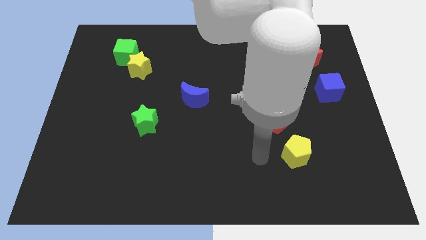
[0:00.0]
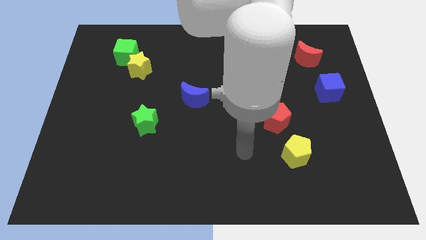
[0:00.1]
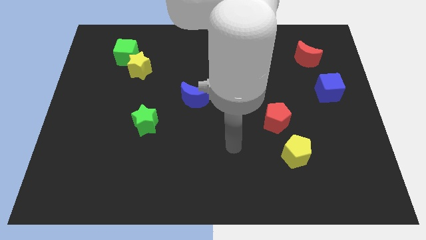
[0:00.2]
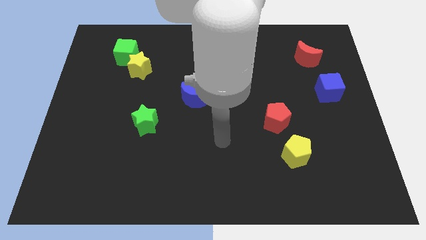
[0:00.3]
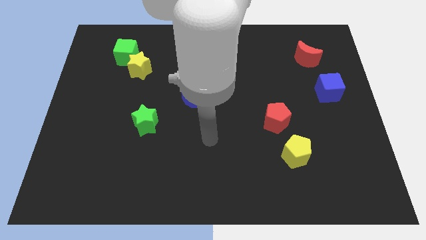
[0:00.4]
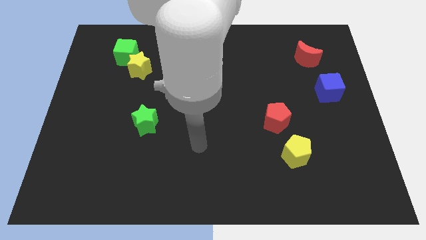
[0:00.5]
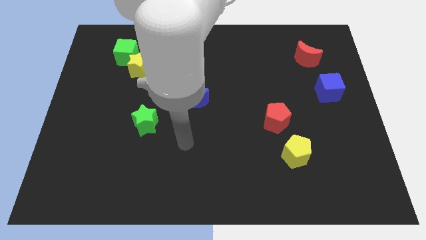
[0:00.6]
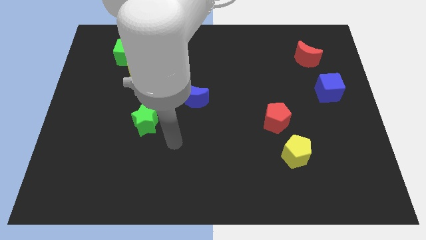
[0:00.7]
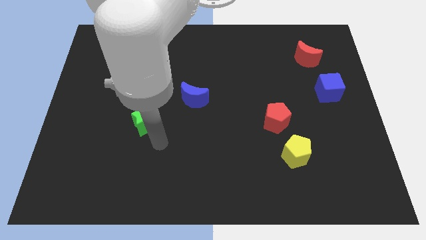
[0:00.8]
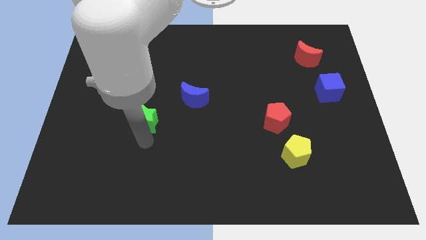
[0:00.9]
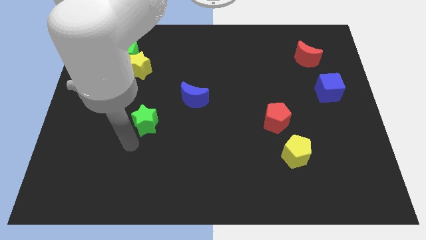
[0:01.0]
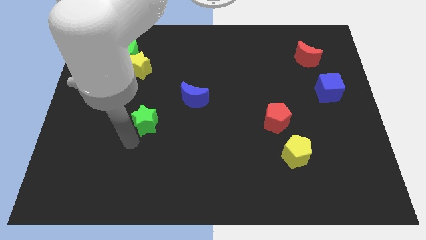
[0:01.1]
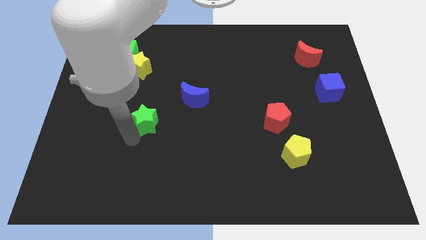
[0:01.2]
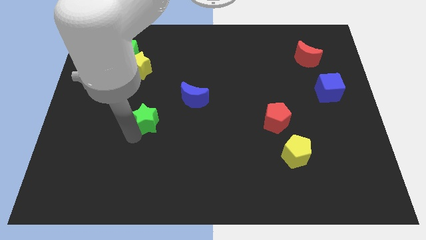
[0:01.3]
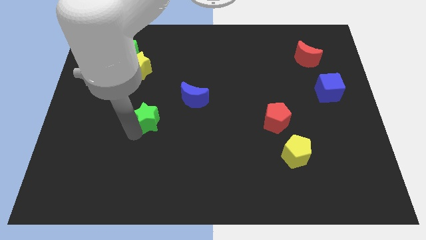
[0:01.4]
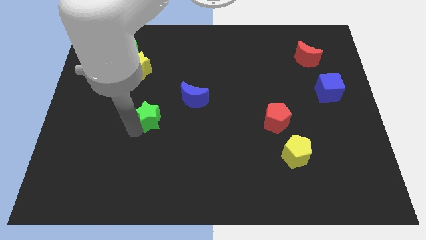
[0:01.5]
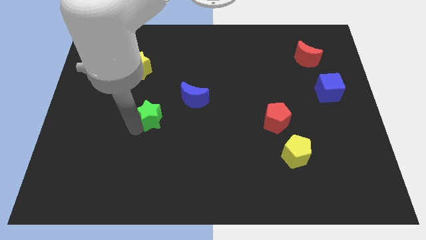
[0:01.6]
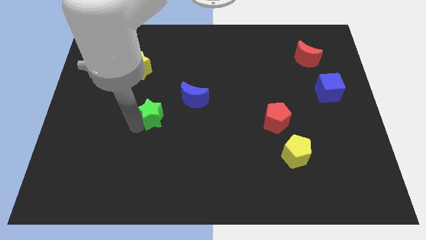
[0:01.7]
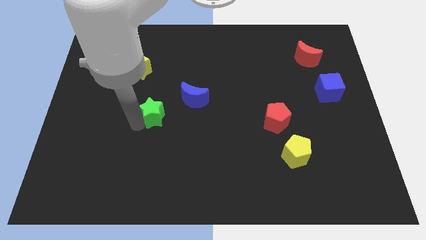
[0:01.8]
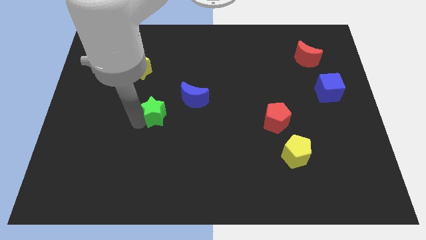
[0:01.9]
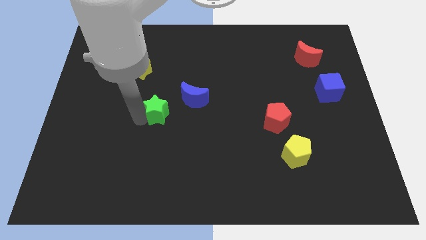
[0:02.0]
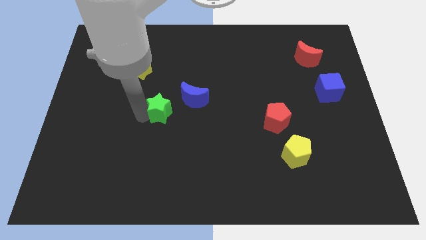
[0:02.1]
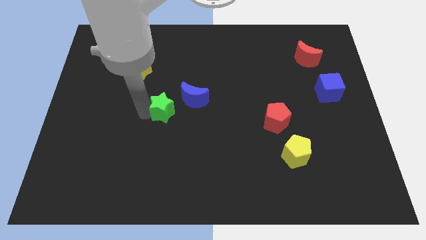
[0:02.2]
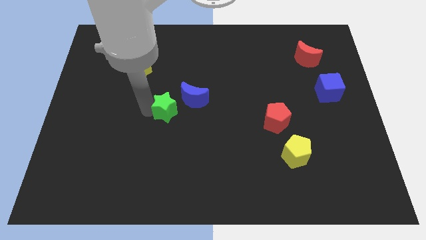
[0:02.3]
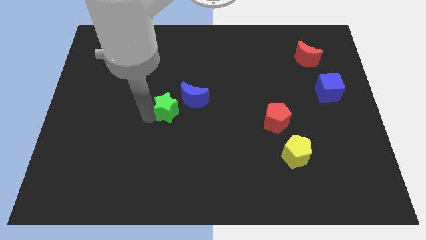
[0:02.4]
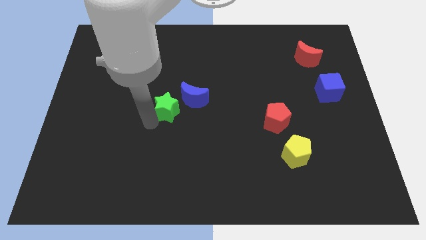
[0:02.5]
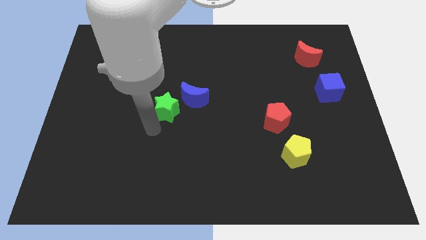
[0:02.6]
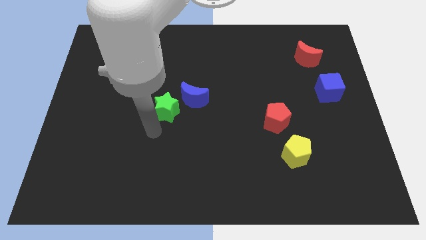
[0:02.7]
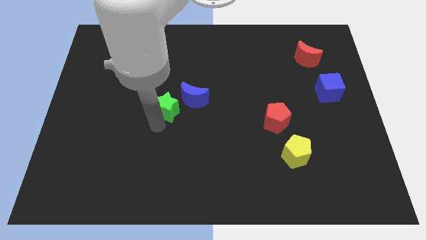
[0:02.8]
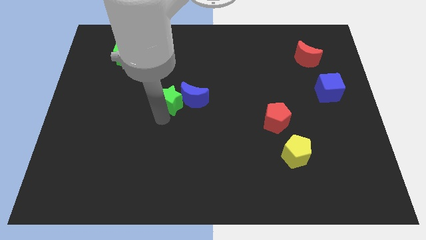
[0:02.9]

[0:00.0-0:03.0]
slightly slide the green star up and right

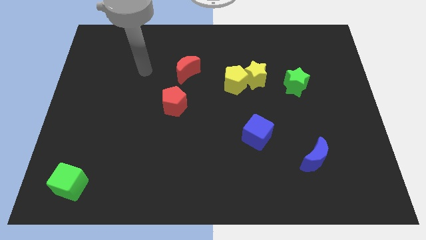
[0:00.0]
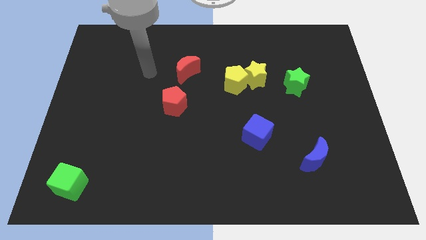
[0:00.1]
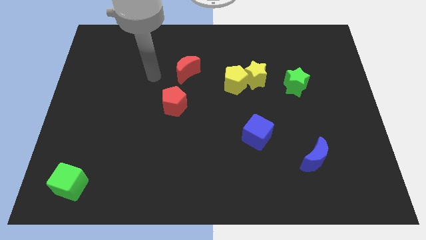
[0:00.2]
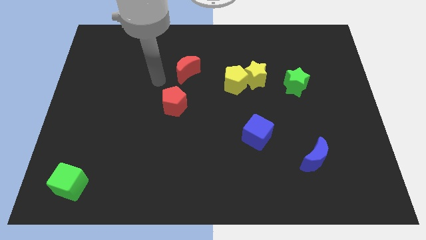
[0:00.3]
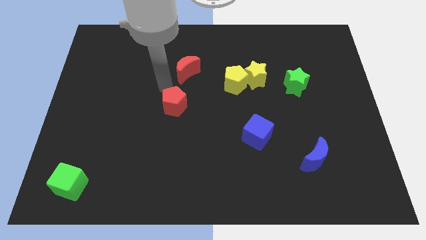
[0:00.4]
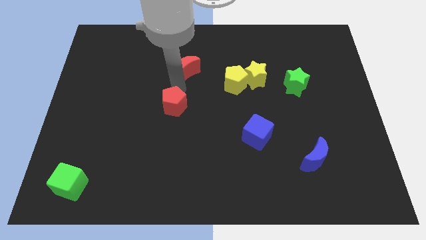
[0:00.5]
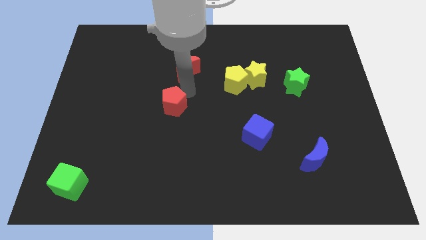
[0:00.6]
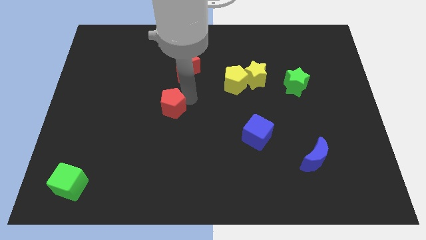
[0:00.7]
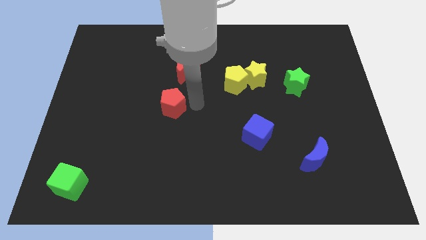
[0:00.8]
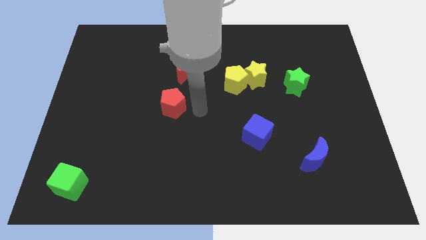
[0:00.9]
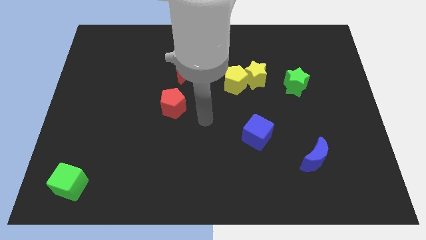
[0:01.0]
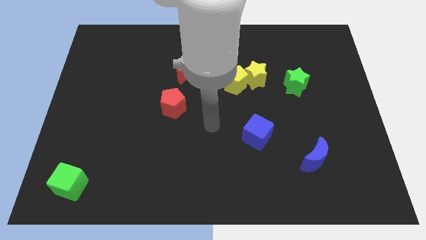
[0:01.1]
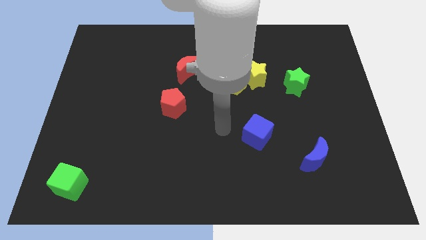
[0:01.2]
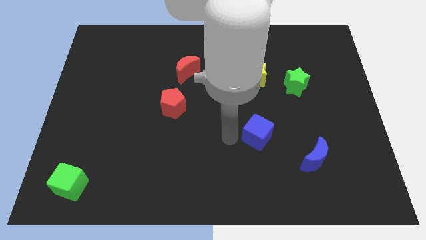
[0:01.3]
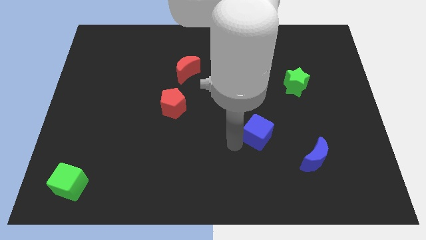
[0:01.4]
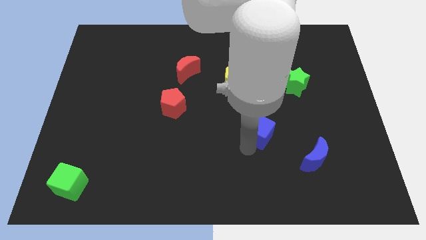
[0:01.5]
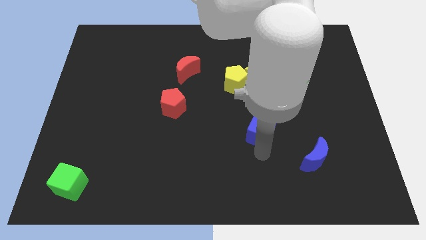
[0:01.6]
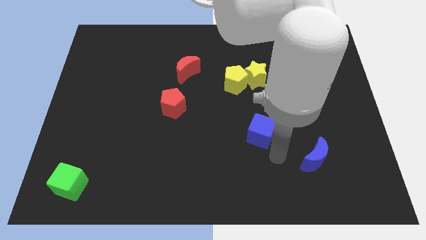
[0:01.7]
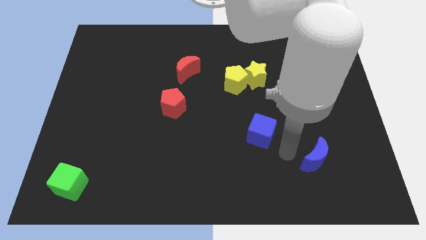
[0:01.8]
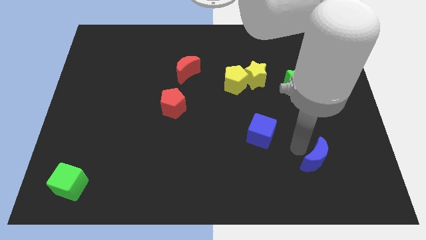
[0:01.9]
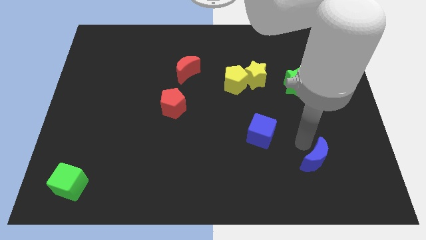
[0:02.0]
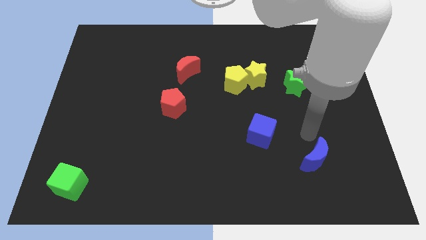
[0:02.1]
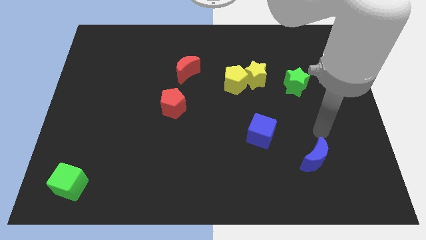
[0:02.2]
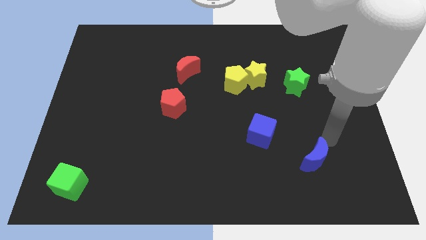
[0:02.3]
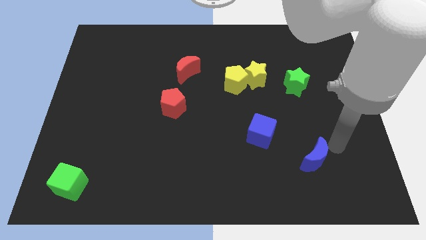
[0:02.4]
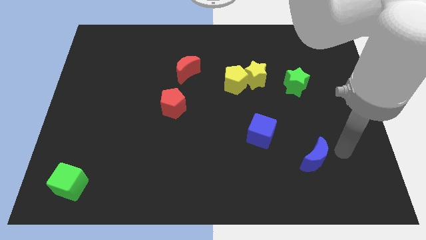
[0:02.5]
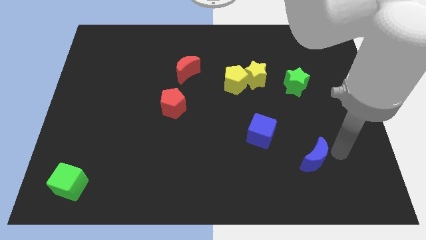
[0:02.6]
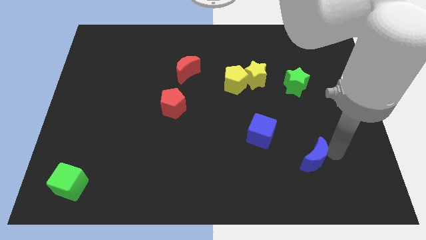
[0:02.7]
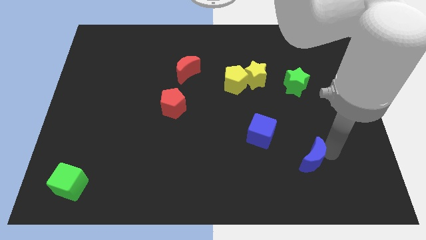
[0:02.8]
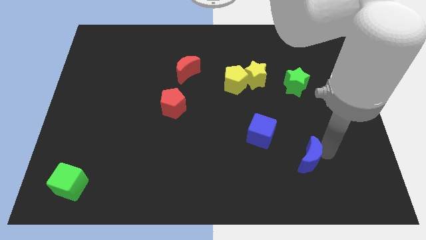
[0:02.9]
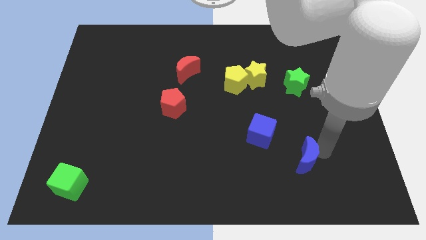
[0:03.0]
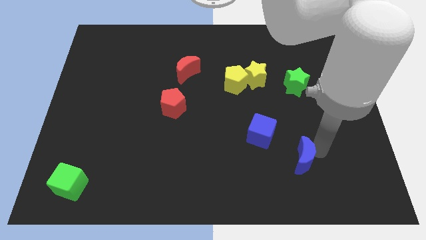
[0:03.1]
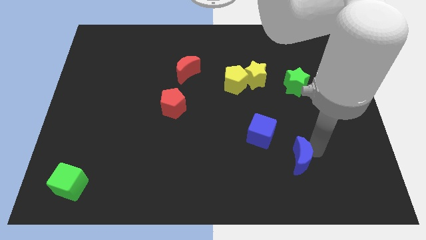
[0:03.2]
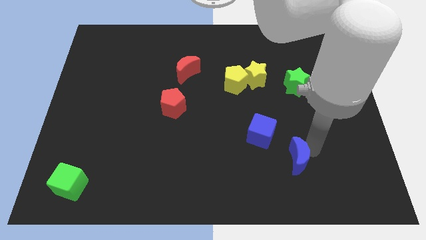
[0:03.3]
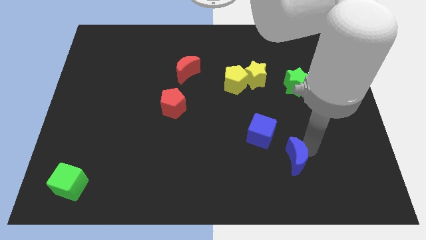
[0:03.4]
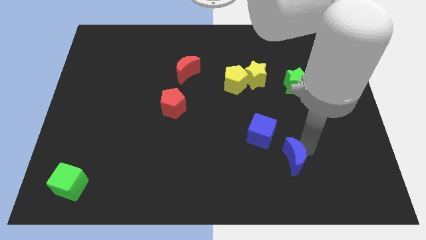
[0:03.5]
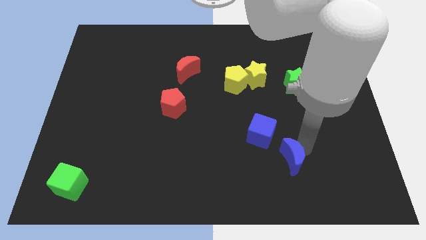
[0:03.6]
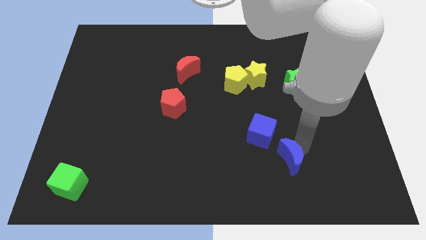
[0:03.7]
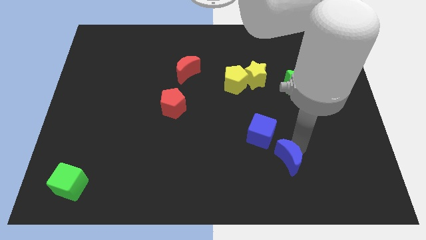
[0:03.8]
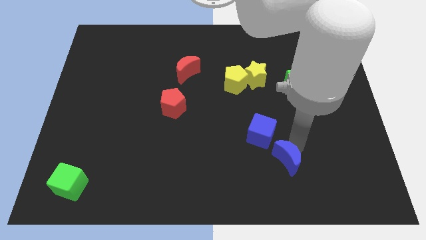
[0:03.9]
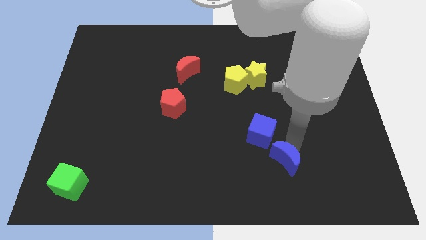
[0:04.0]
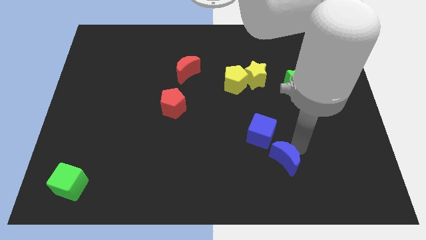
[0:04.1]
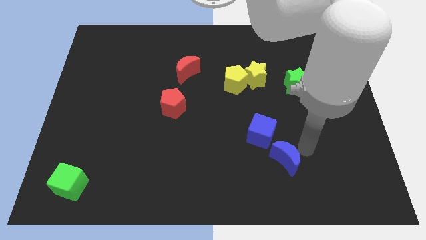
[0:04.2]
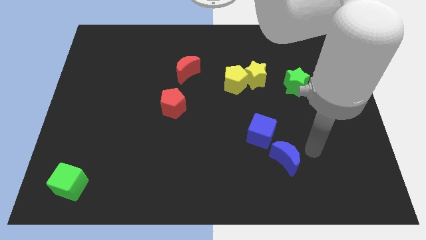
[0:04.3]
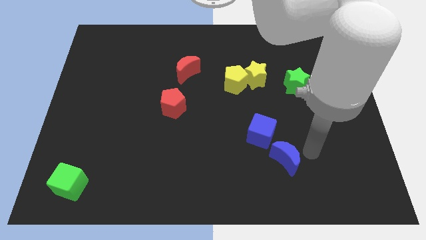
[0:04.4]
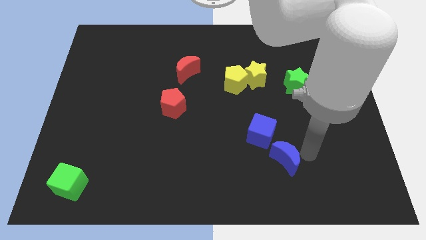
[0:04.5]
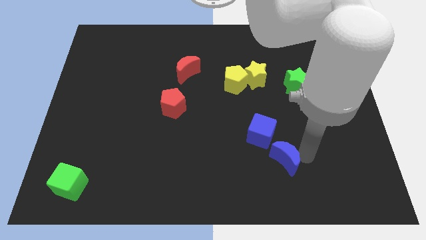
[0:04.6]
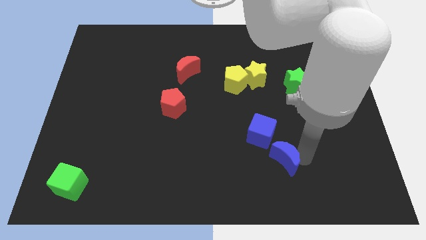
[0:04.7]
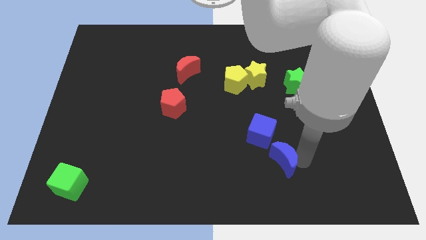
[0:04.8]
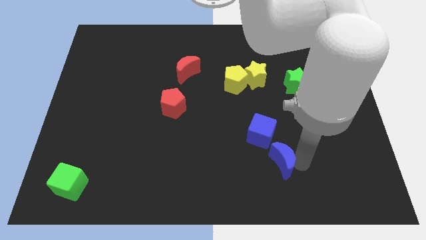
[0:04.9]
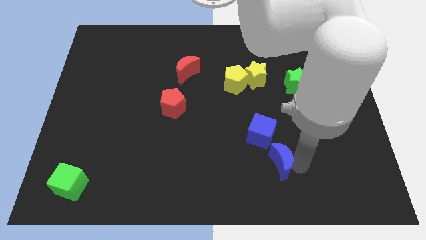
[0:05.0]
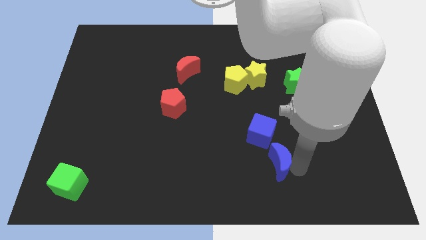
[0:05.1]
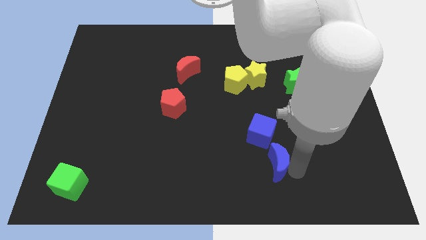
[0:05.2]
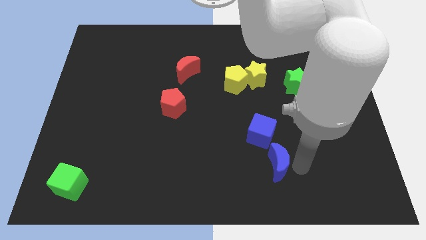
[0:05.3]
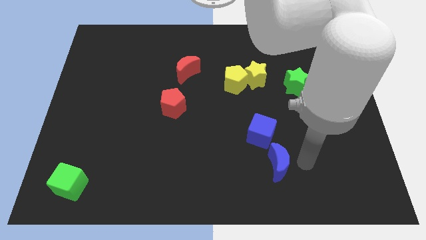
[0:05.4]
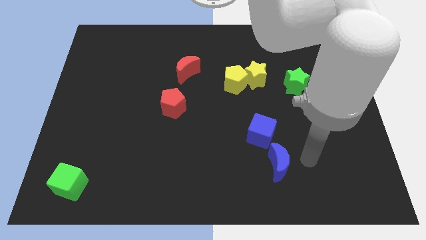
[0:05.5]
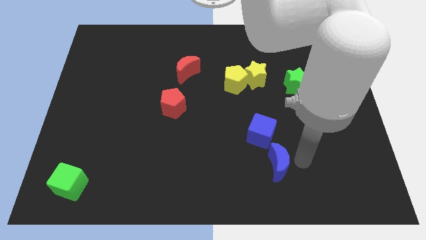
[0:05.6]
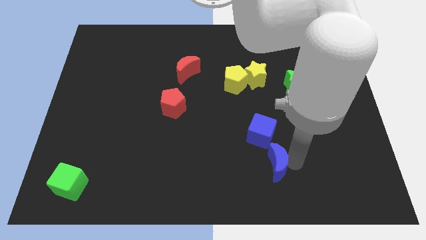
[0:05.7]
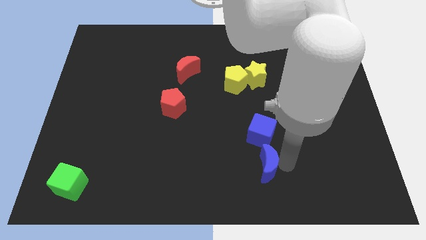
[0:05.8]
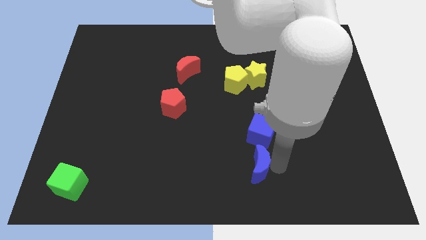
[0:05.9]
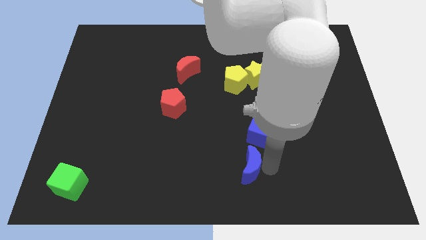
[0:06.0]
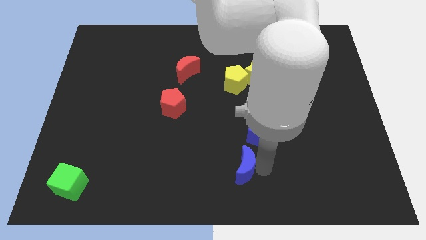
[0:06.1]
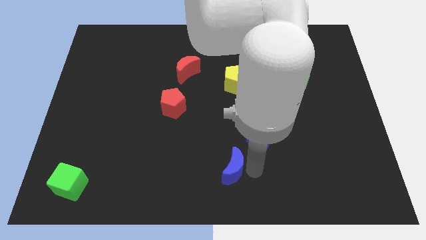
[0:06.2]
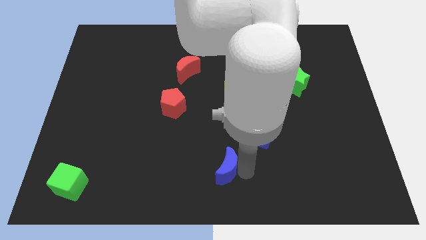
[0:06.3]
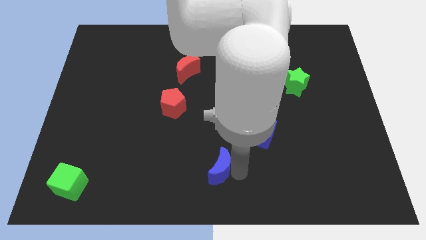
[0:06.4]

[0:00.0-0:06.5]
slide the blue moon to the left
